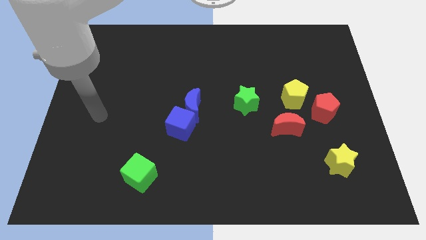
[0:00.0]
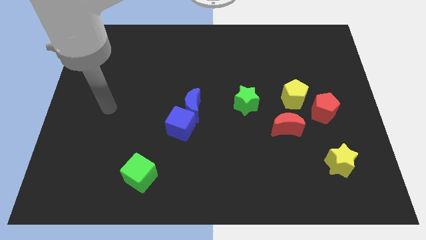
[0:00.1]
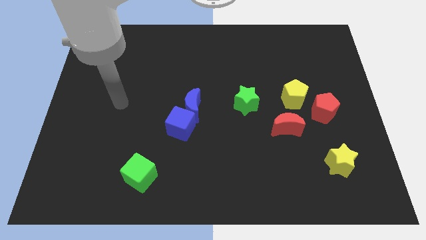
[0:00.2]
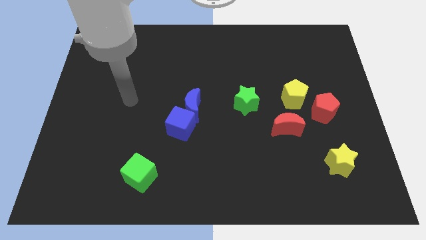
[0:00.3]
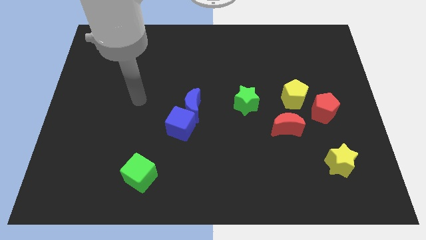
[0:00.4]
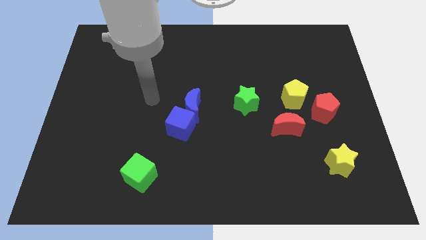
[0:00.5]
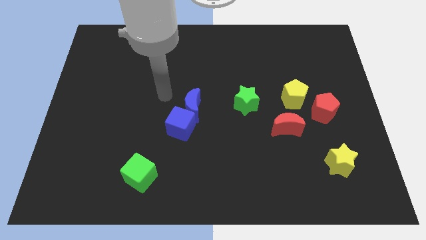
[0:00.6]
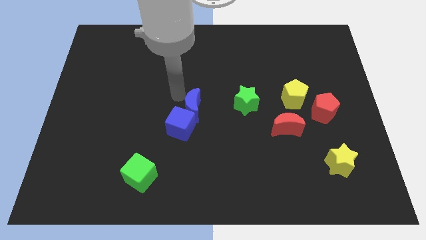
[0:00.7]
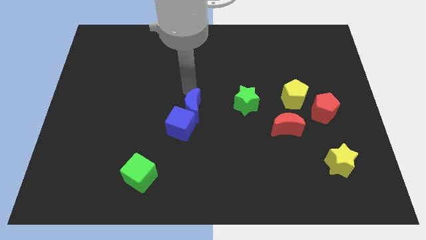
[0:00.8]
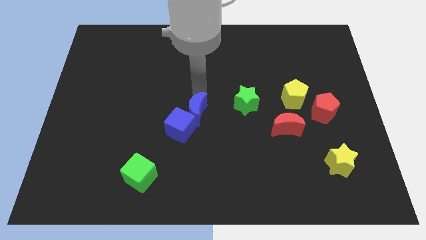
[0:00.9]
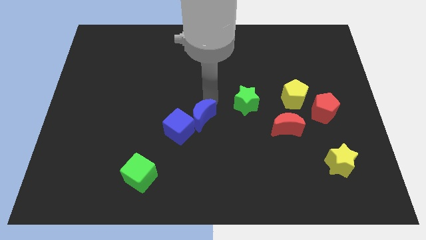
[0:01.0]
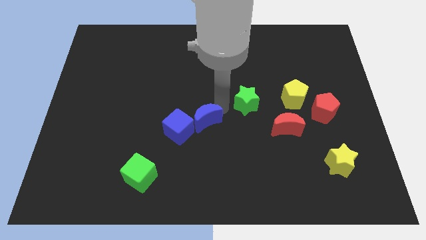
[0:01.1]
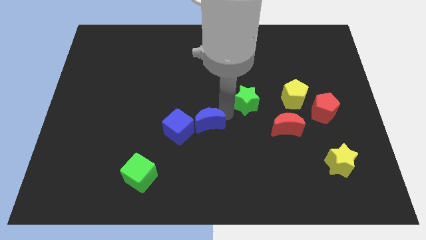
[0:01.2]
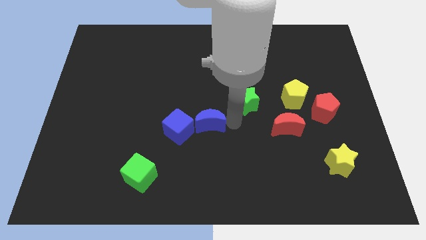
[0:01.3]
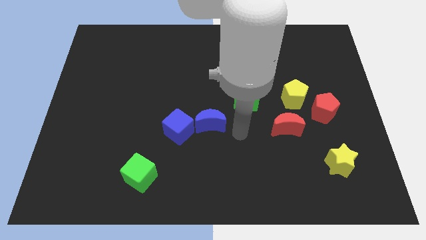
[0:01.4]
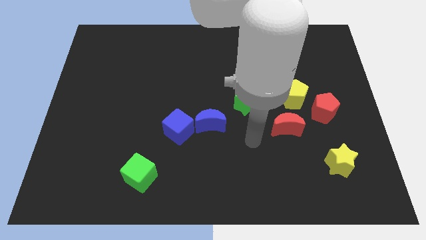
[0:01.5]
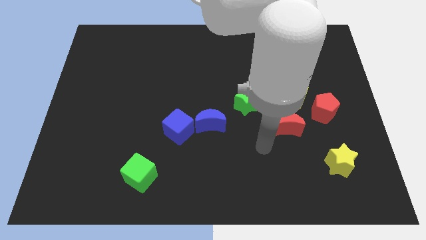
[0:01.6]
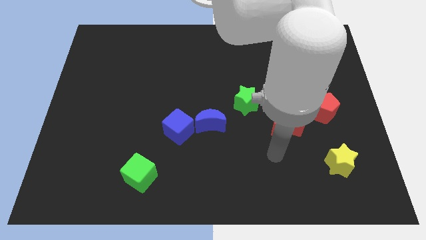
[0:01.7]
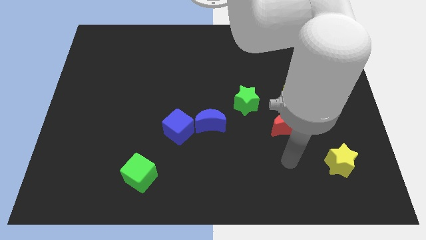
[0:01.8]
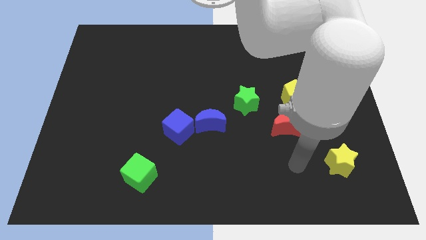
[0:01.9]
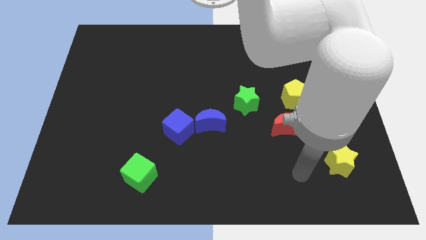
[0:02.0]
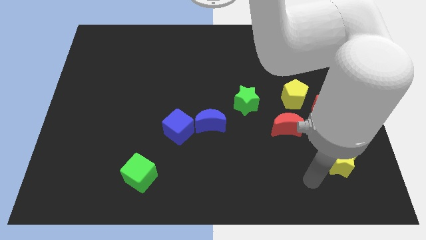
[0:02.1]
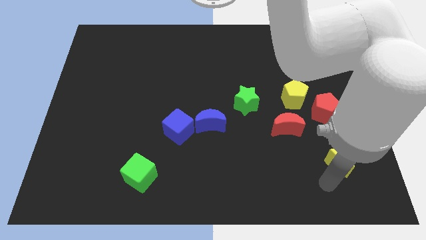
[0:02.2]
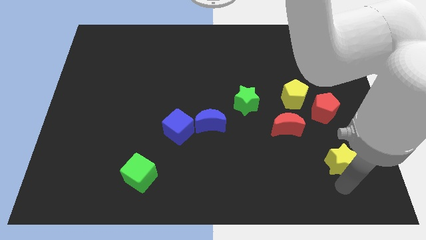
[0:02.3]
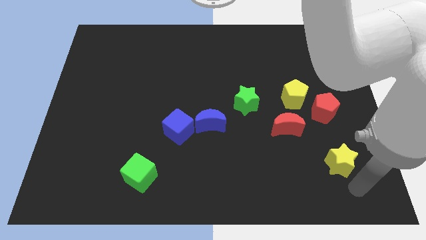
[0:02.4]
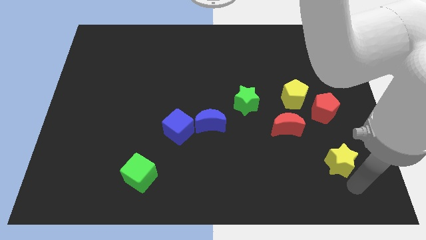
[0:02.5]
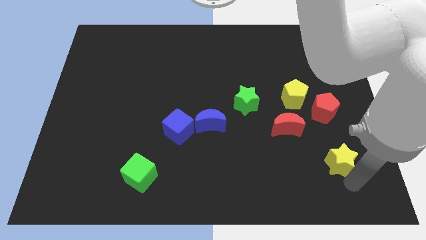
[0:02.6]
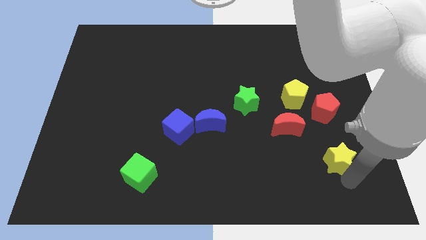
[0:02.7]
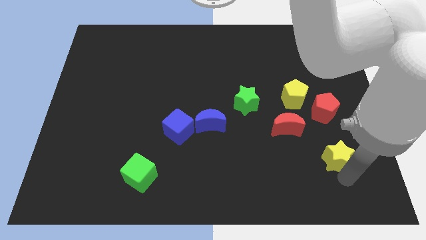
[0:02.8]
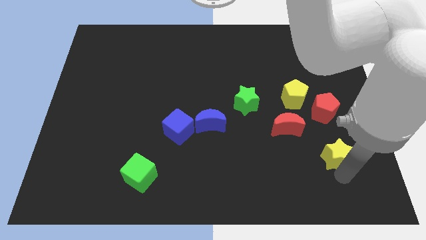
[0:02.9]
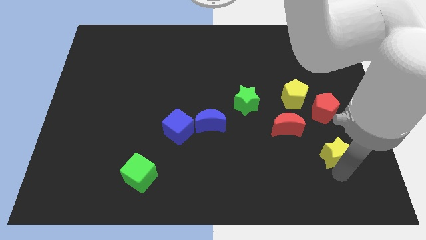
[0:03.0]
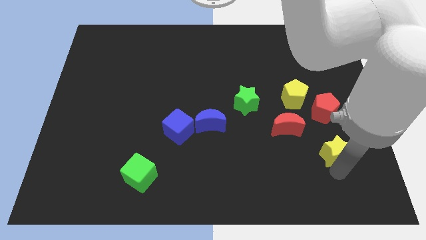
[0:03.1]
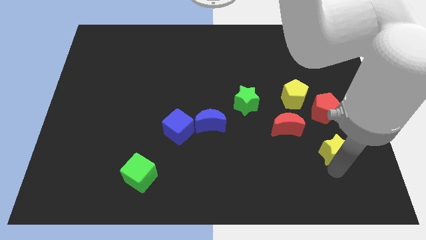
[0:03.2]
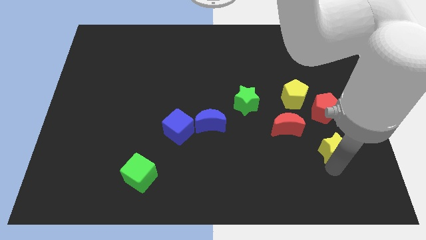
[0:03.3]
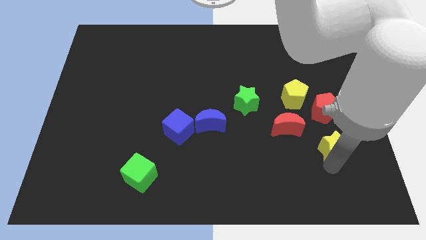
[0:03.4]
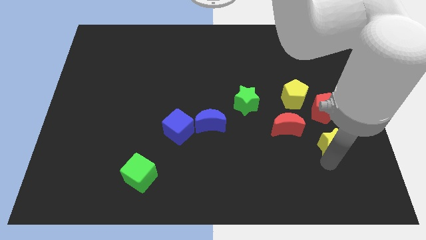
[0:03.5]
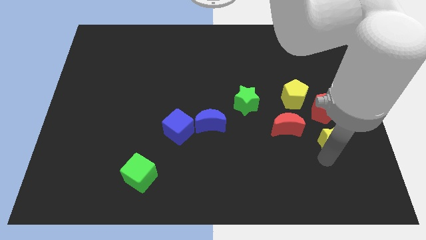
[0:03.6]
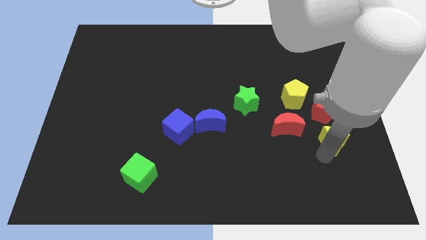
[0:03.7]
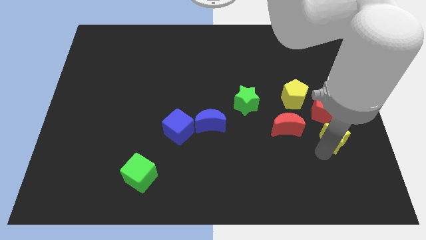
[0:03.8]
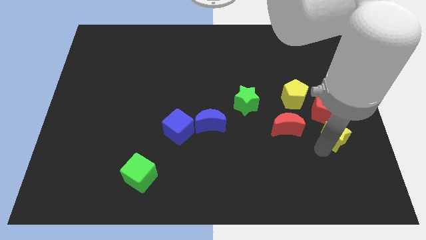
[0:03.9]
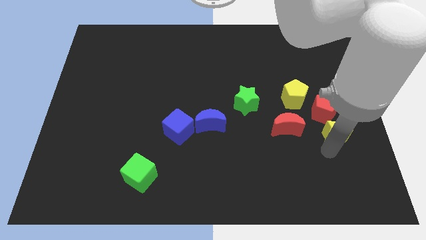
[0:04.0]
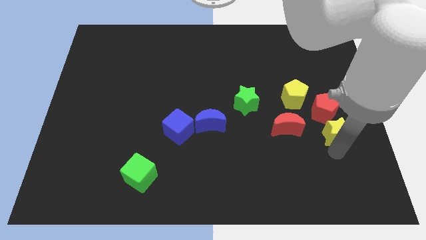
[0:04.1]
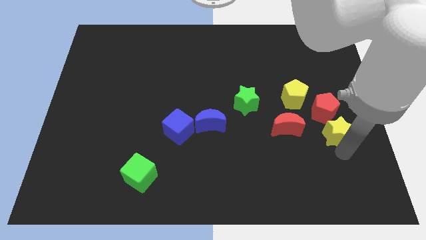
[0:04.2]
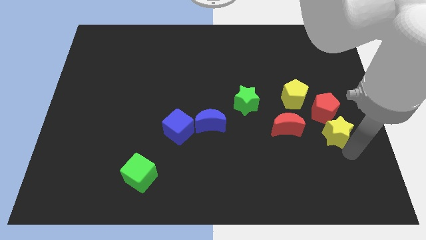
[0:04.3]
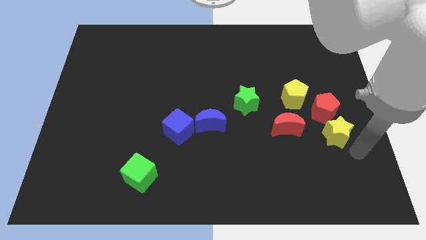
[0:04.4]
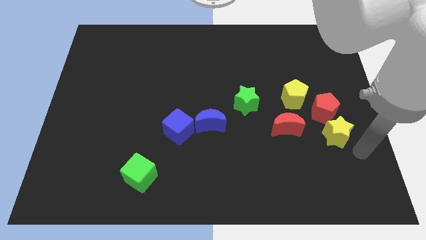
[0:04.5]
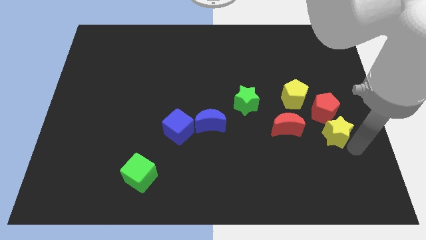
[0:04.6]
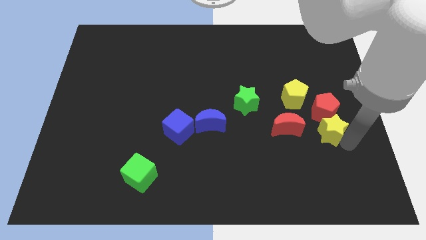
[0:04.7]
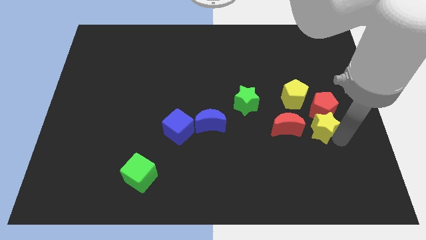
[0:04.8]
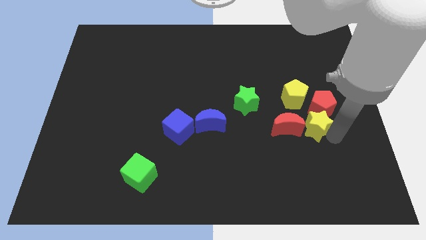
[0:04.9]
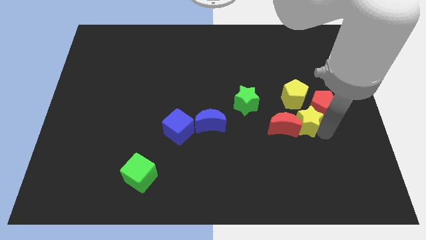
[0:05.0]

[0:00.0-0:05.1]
slide the yellow star to the left side of the red pentagon

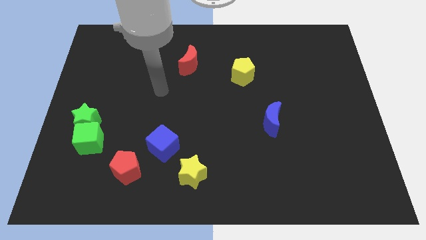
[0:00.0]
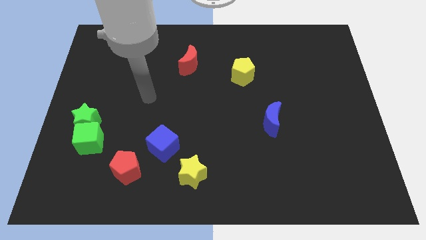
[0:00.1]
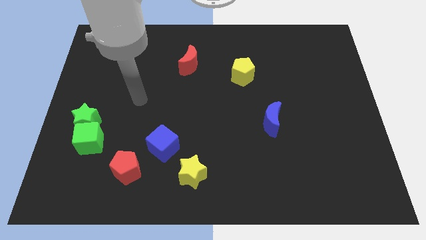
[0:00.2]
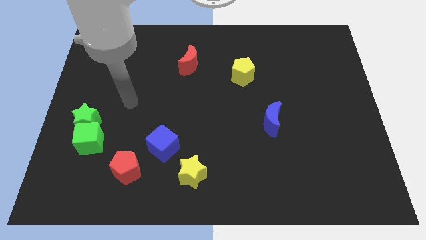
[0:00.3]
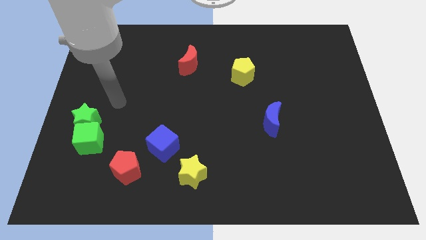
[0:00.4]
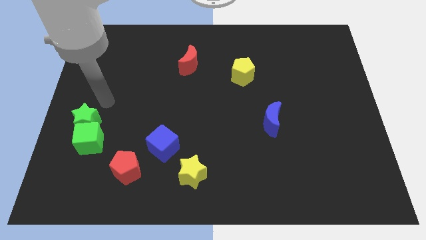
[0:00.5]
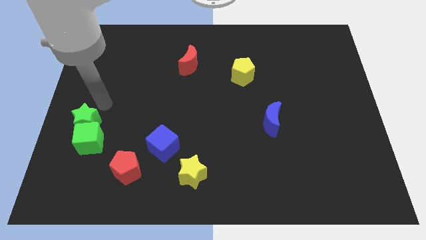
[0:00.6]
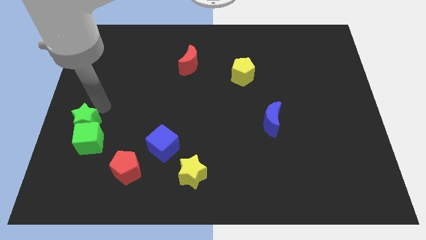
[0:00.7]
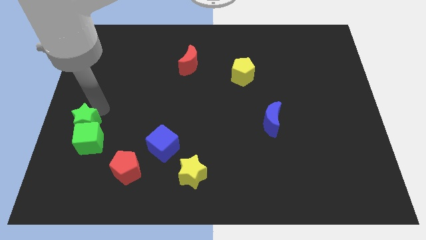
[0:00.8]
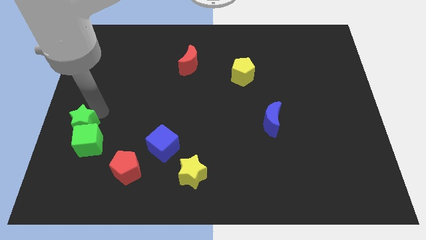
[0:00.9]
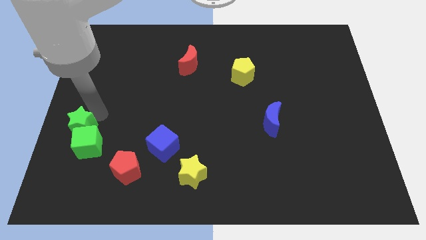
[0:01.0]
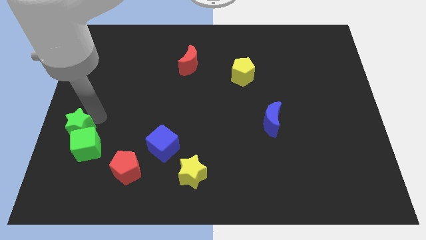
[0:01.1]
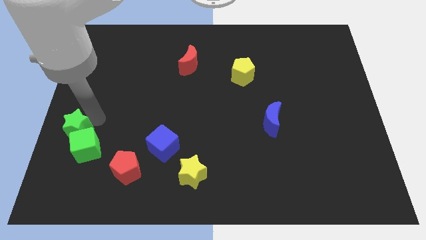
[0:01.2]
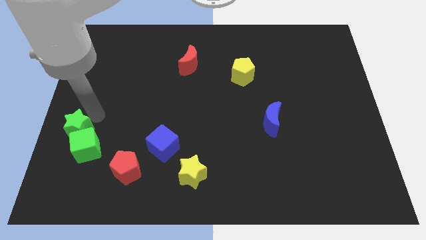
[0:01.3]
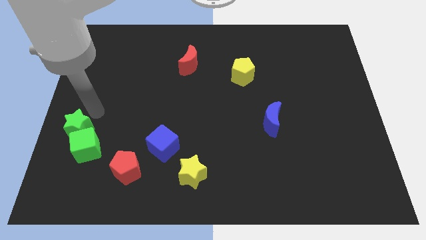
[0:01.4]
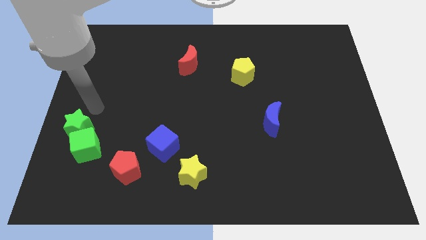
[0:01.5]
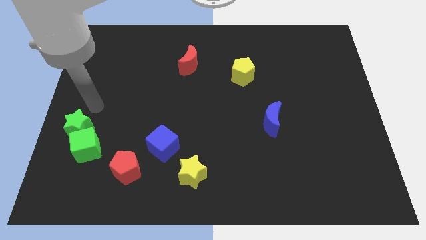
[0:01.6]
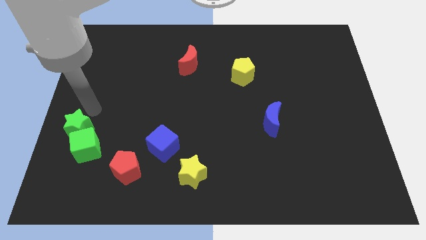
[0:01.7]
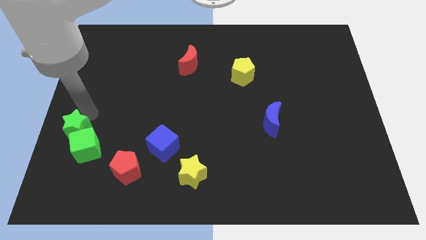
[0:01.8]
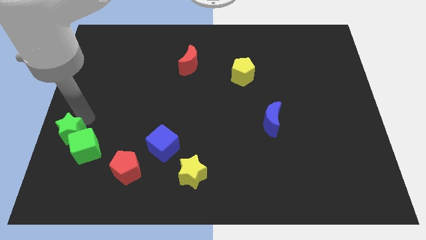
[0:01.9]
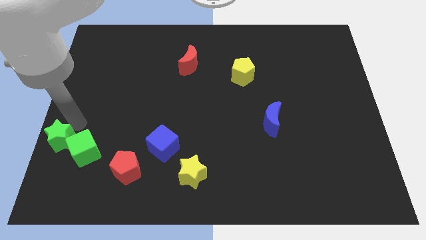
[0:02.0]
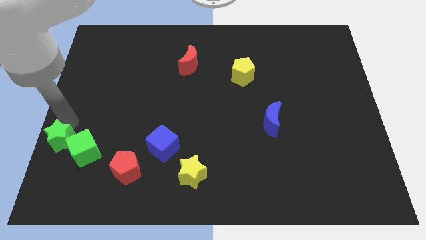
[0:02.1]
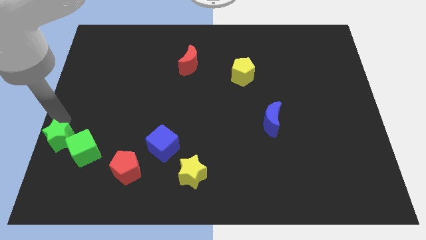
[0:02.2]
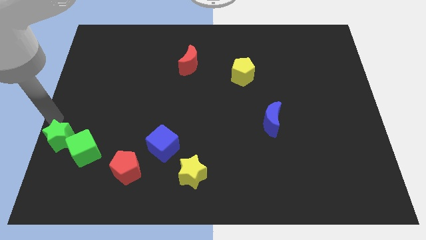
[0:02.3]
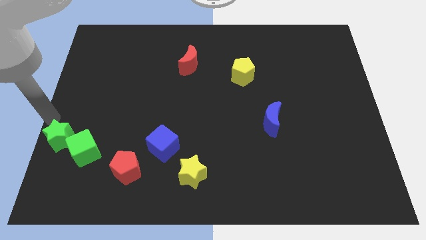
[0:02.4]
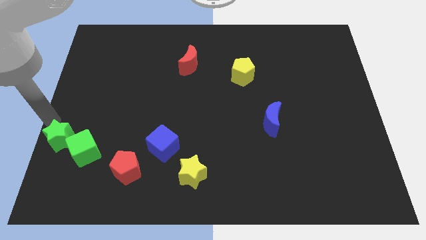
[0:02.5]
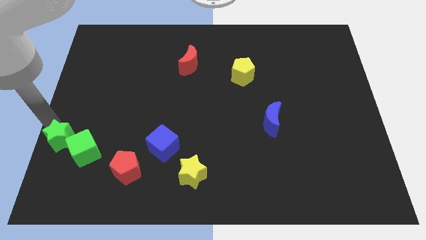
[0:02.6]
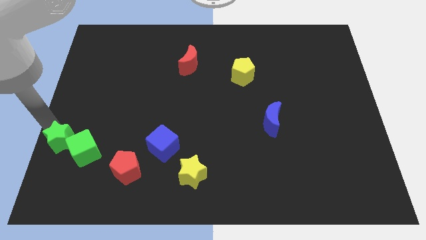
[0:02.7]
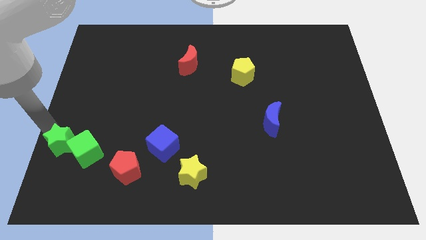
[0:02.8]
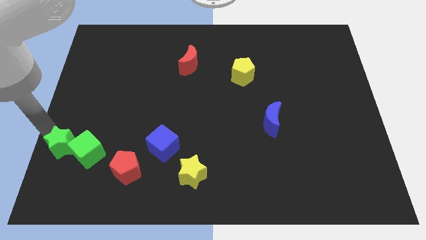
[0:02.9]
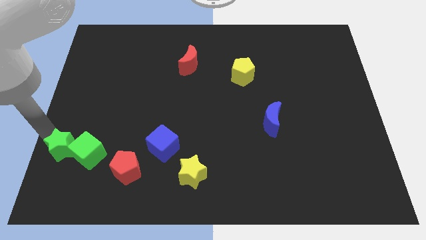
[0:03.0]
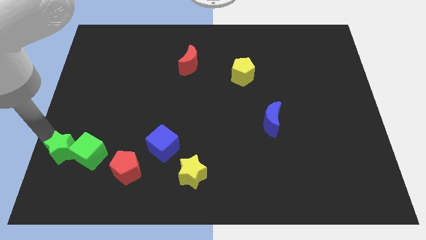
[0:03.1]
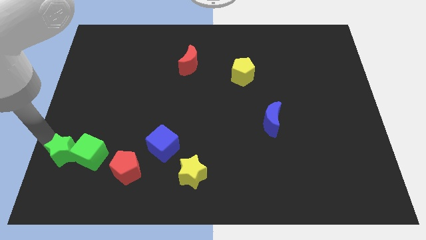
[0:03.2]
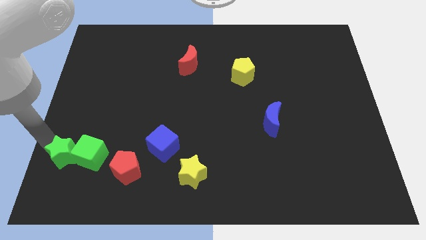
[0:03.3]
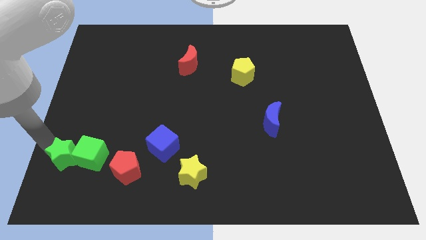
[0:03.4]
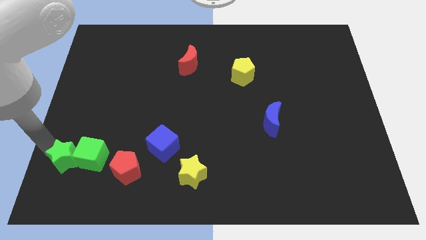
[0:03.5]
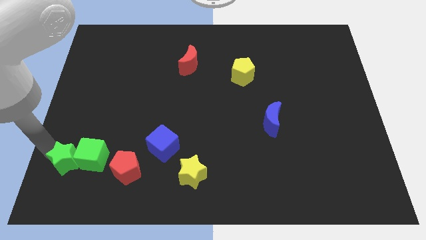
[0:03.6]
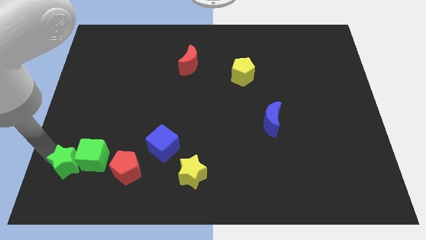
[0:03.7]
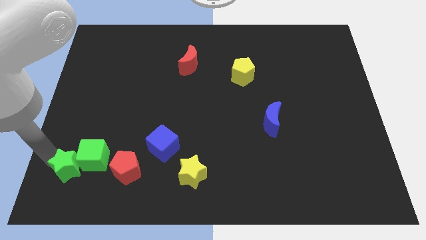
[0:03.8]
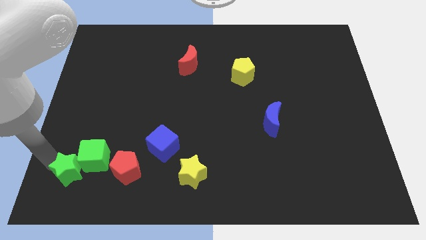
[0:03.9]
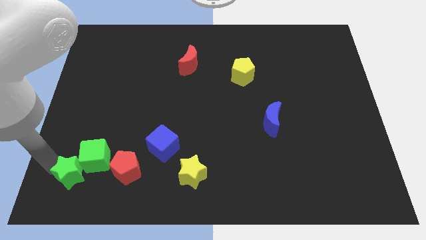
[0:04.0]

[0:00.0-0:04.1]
push the green star to the bottom of the green cube
